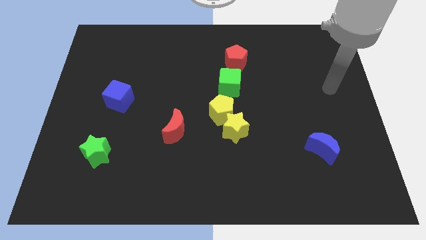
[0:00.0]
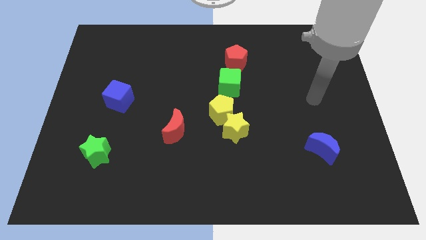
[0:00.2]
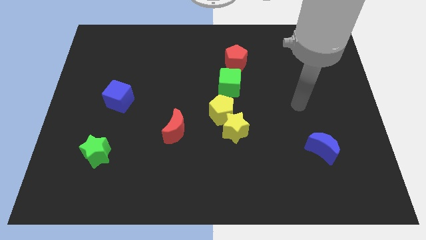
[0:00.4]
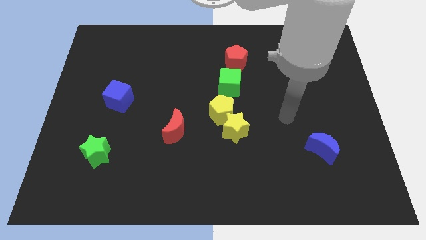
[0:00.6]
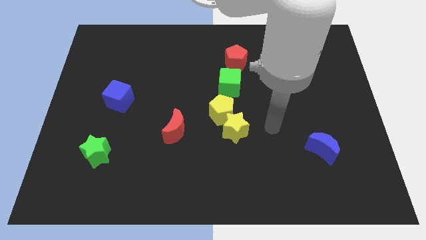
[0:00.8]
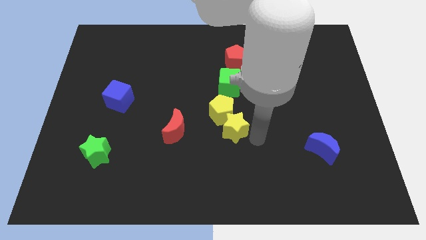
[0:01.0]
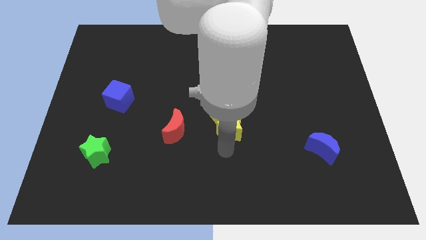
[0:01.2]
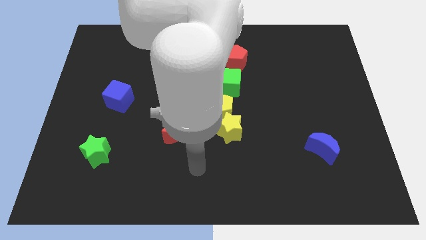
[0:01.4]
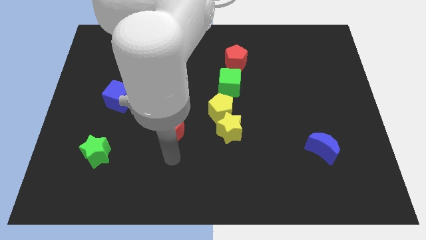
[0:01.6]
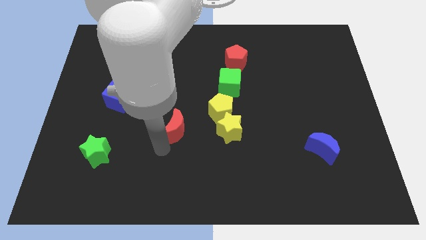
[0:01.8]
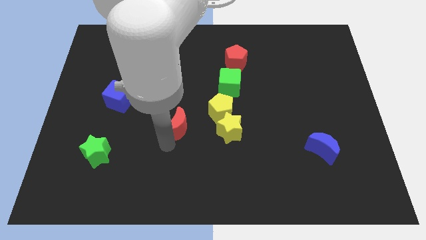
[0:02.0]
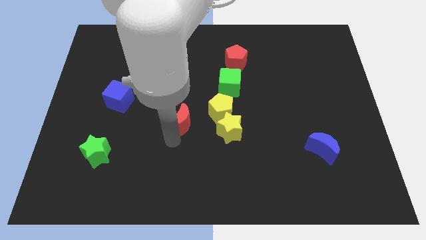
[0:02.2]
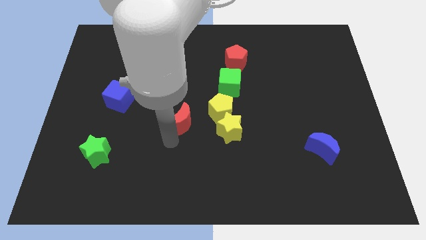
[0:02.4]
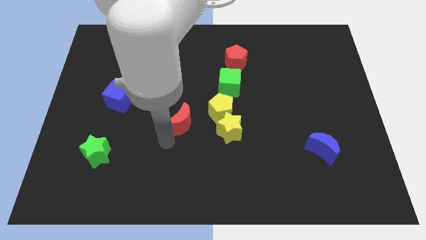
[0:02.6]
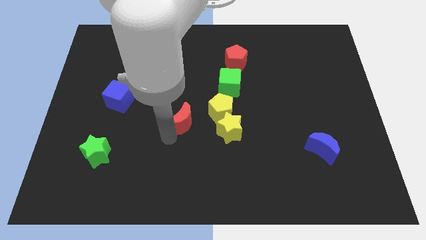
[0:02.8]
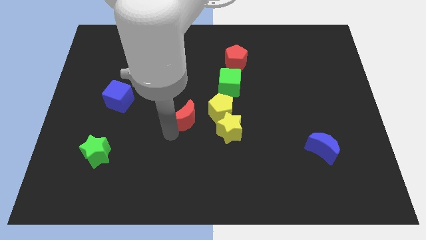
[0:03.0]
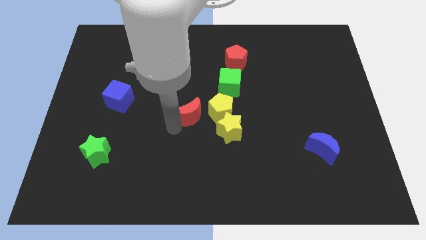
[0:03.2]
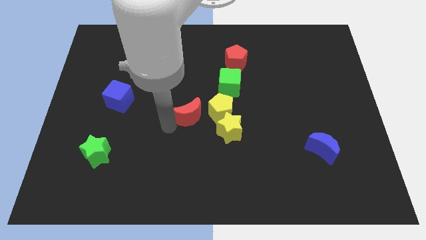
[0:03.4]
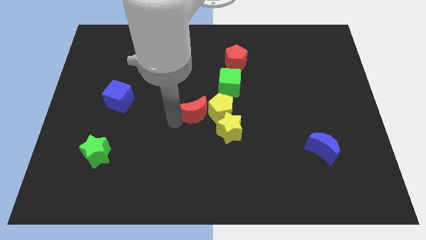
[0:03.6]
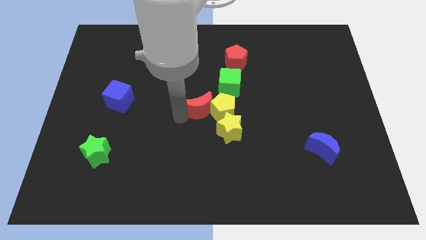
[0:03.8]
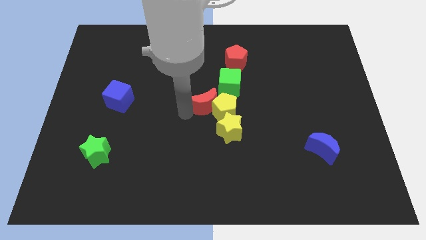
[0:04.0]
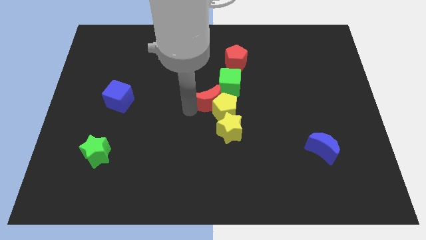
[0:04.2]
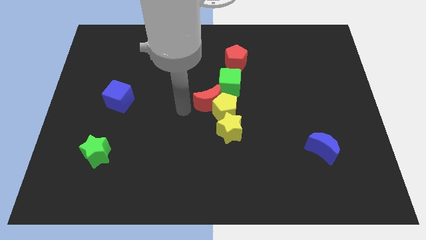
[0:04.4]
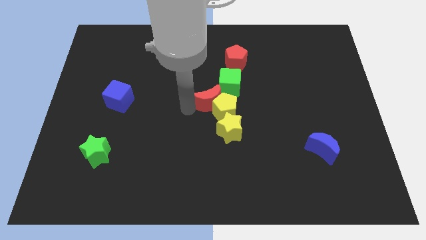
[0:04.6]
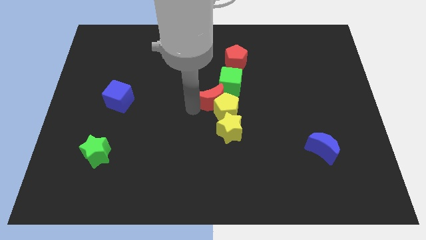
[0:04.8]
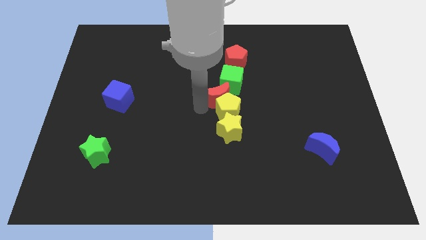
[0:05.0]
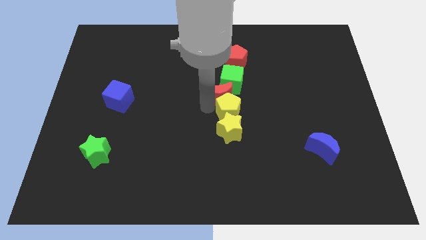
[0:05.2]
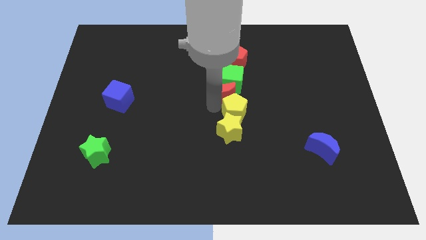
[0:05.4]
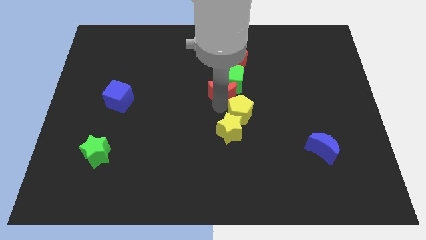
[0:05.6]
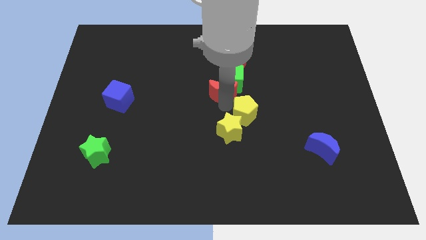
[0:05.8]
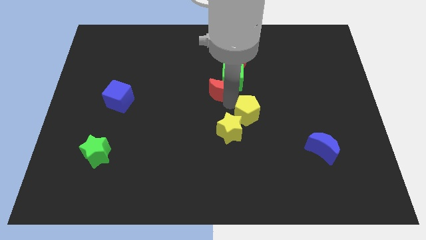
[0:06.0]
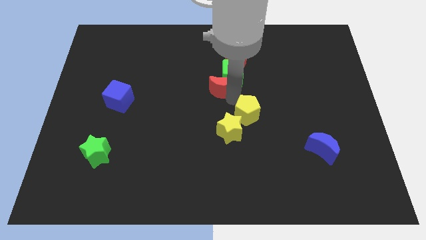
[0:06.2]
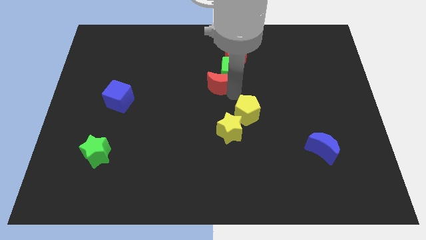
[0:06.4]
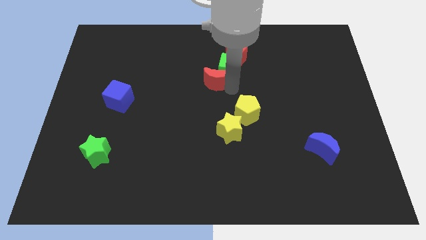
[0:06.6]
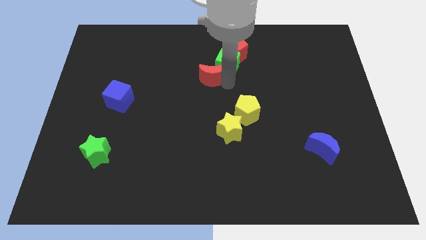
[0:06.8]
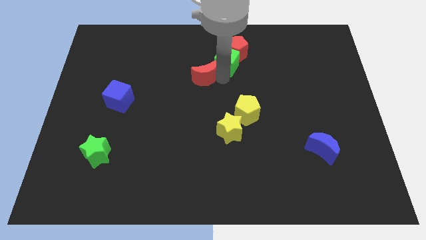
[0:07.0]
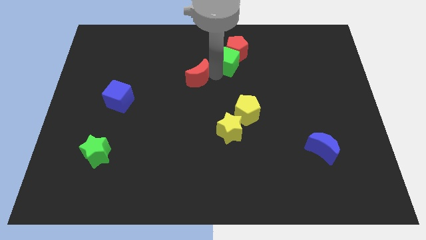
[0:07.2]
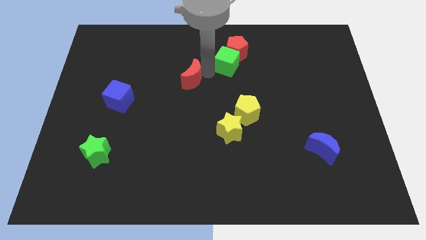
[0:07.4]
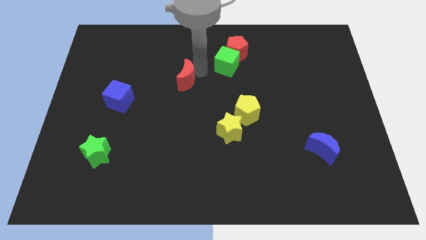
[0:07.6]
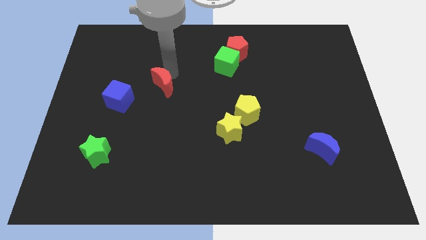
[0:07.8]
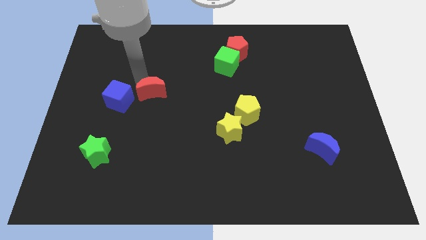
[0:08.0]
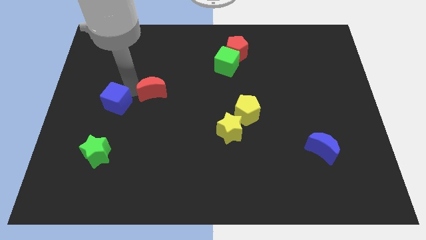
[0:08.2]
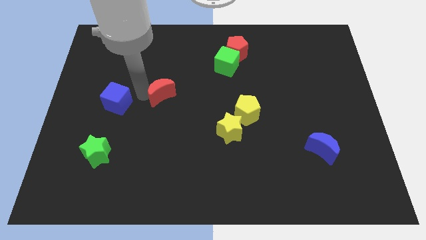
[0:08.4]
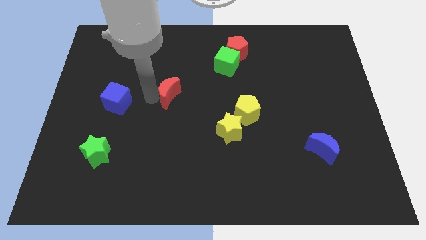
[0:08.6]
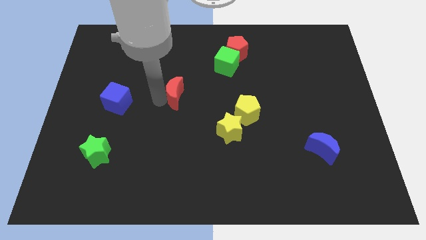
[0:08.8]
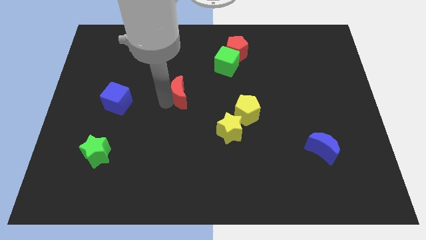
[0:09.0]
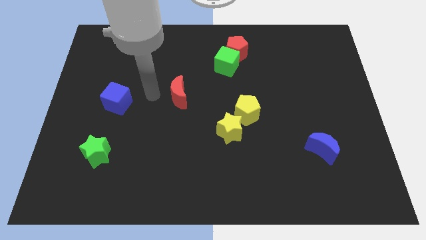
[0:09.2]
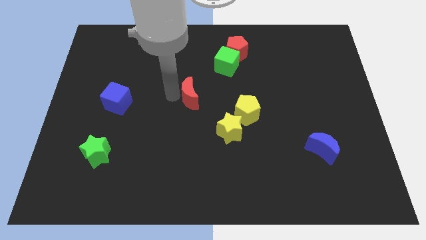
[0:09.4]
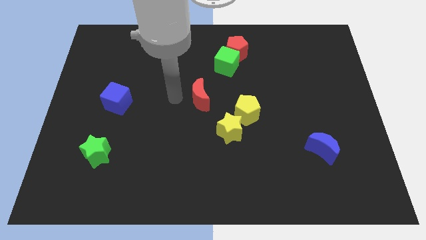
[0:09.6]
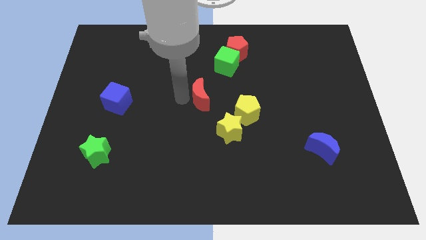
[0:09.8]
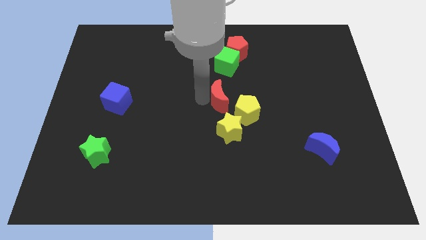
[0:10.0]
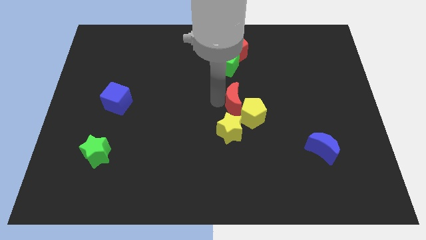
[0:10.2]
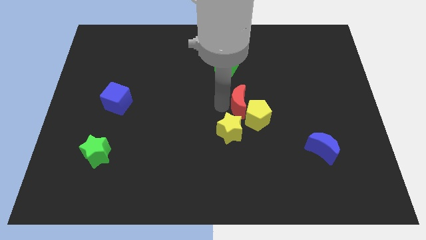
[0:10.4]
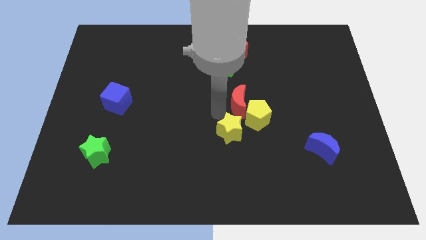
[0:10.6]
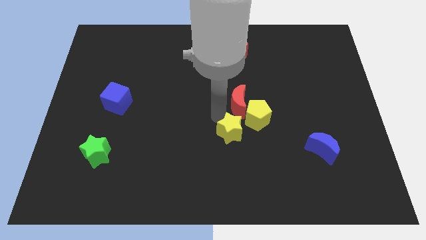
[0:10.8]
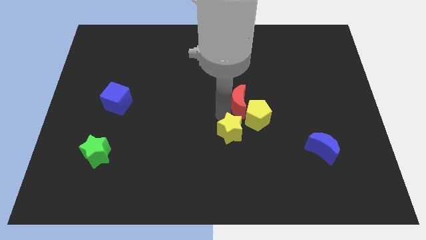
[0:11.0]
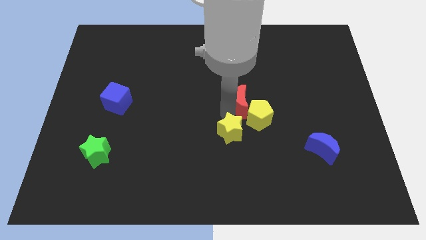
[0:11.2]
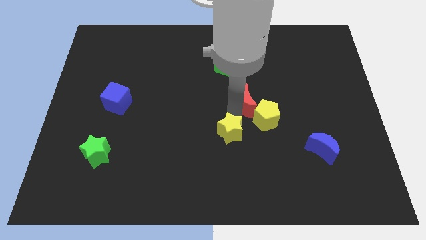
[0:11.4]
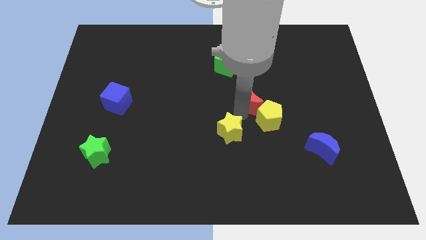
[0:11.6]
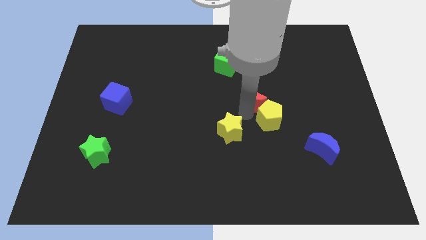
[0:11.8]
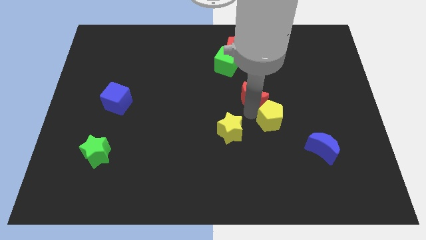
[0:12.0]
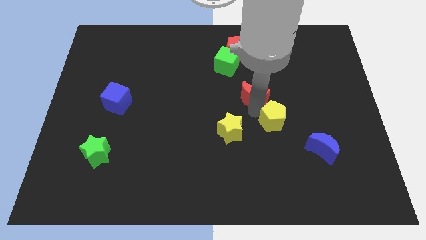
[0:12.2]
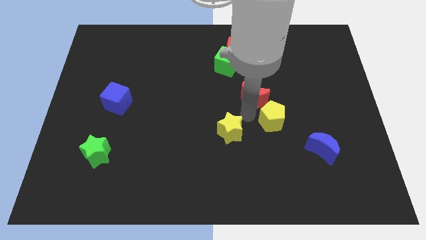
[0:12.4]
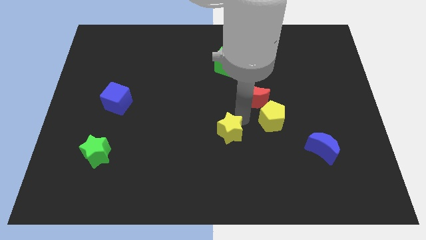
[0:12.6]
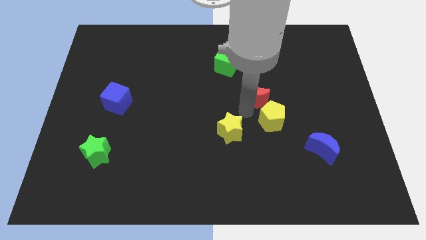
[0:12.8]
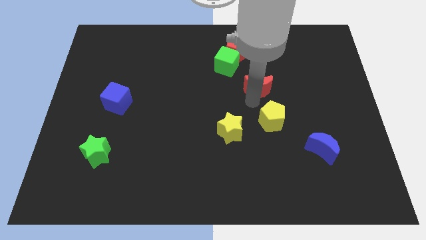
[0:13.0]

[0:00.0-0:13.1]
move the red moon upwards and right diagonally

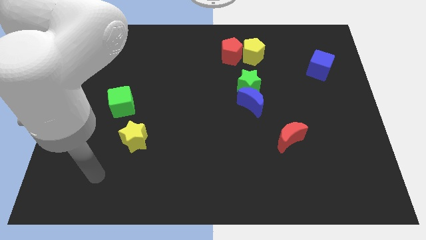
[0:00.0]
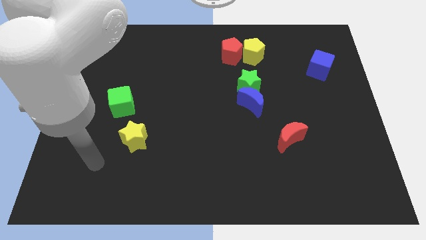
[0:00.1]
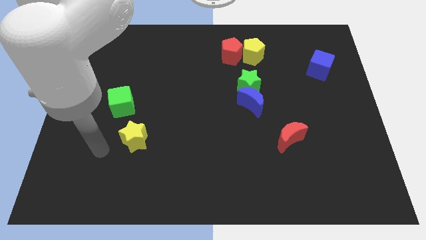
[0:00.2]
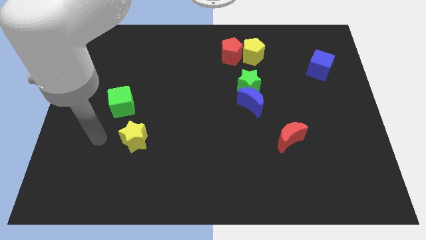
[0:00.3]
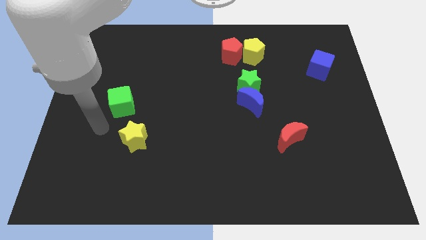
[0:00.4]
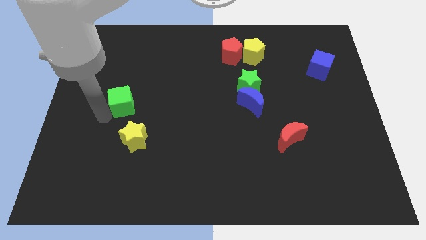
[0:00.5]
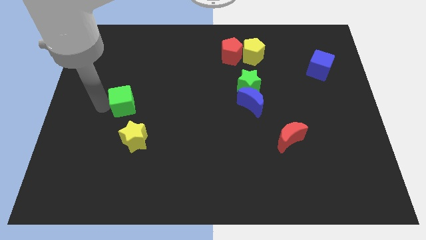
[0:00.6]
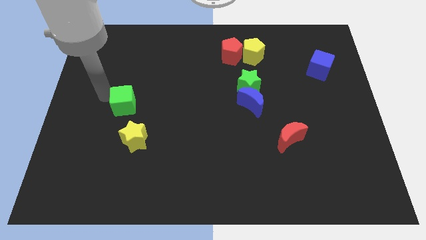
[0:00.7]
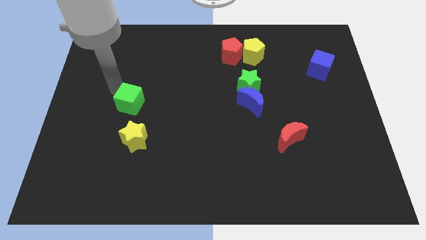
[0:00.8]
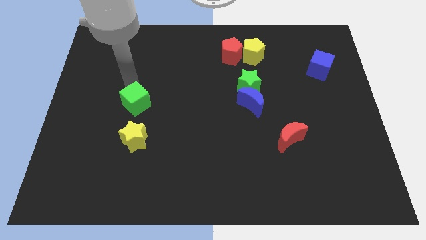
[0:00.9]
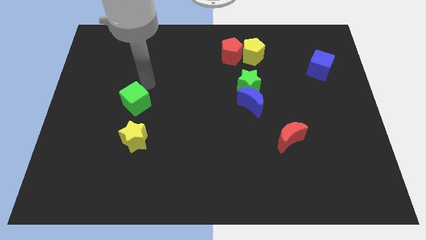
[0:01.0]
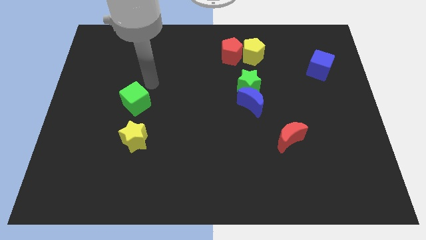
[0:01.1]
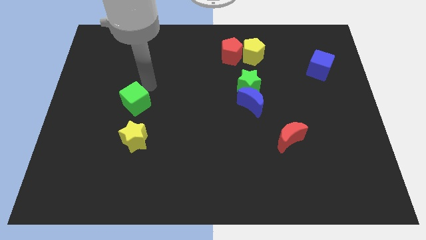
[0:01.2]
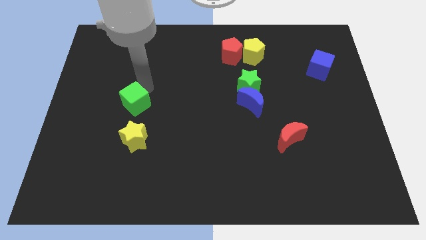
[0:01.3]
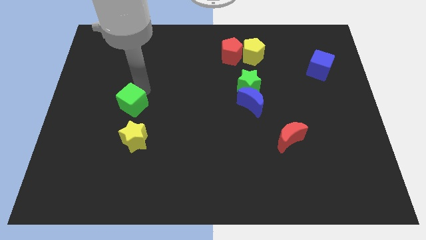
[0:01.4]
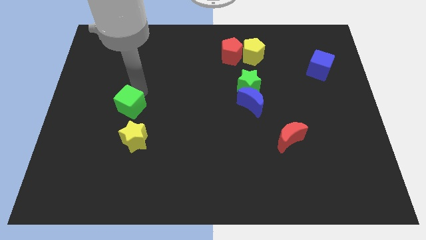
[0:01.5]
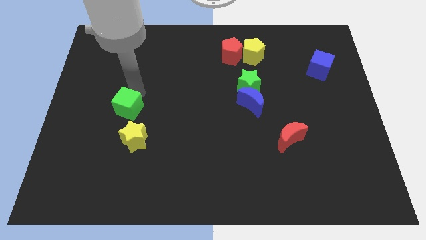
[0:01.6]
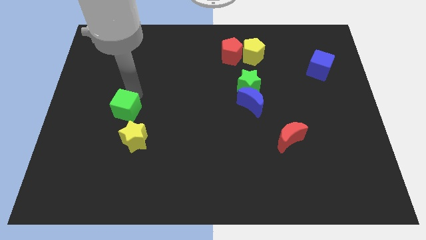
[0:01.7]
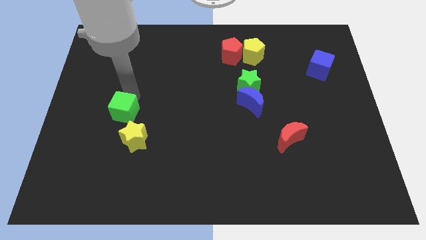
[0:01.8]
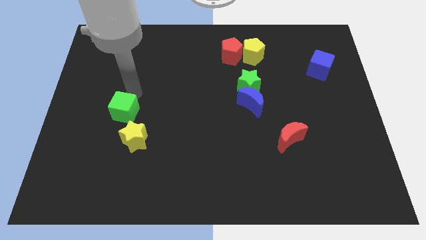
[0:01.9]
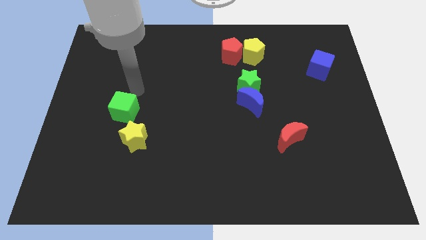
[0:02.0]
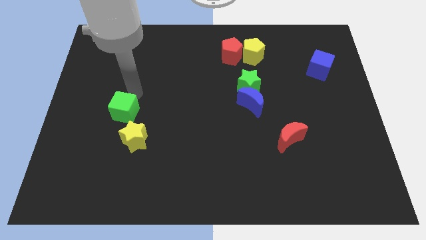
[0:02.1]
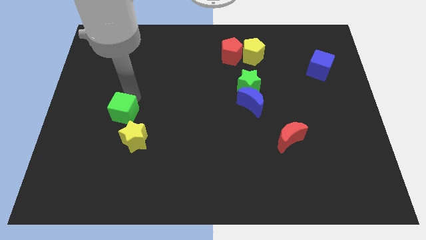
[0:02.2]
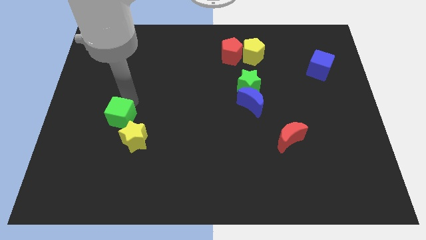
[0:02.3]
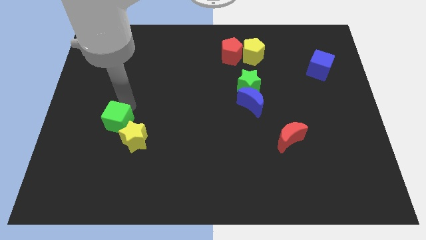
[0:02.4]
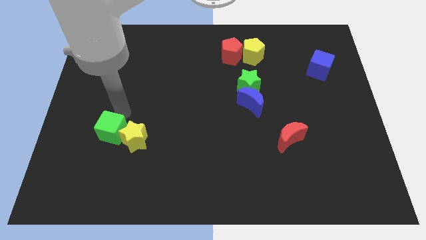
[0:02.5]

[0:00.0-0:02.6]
push the green cube down slightly
